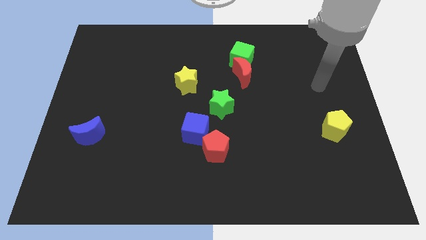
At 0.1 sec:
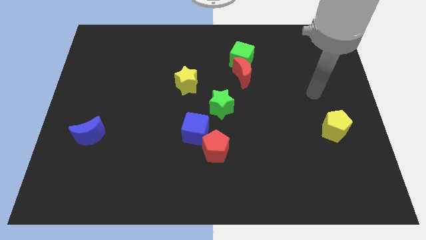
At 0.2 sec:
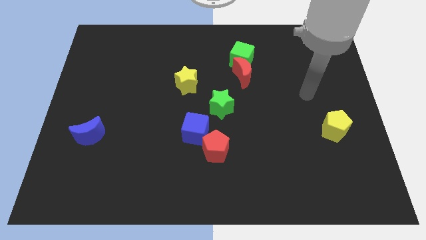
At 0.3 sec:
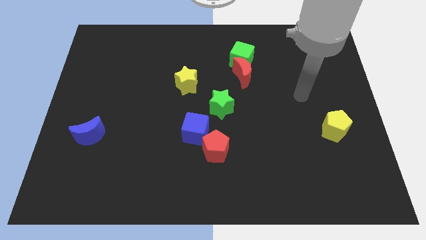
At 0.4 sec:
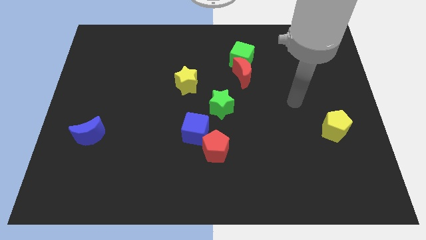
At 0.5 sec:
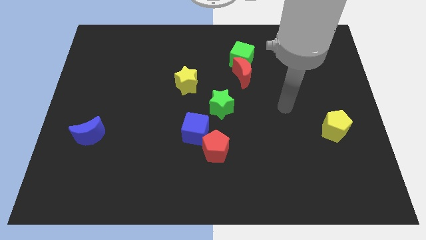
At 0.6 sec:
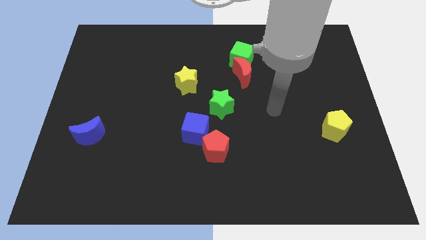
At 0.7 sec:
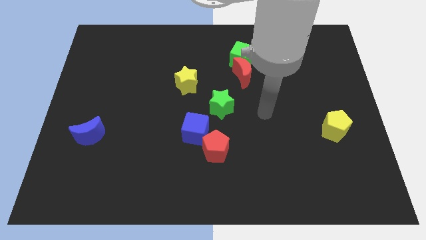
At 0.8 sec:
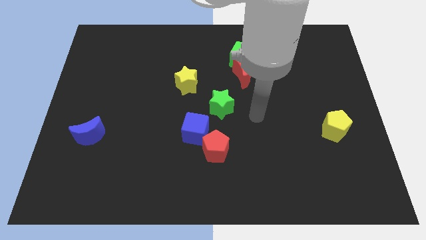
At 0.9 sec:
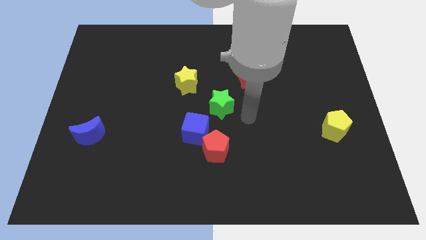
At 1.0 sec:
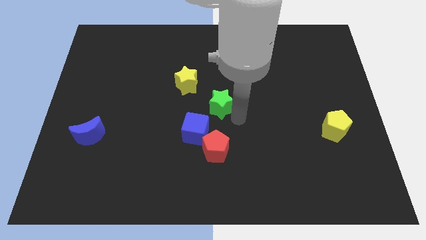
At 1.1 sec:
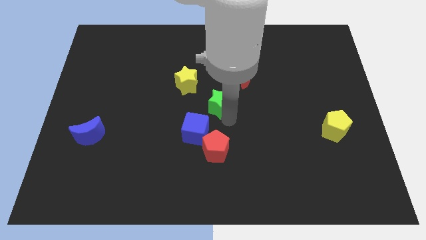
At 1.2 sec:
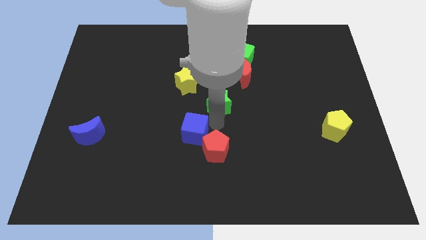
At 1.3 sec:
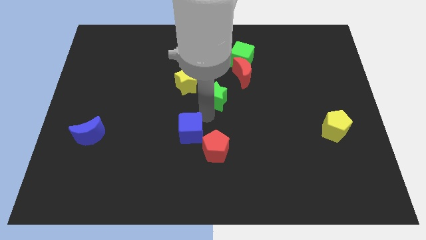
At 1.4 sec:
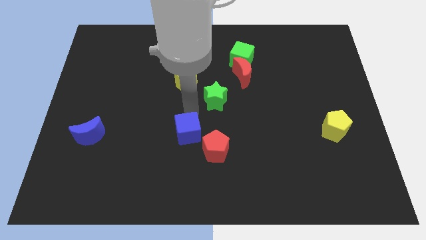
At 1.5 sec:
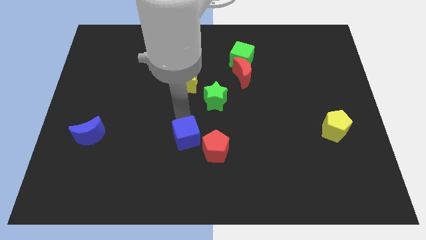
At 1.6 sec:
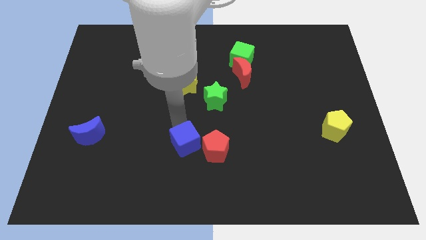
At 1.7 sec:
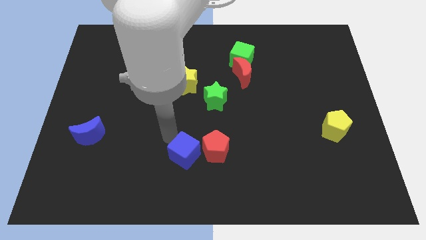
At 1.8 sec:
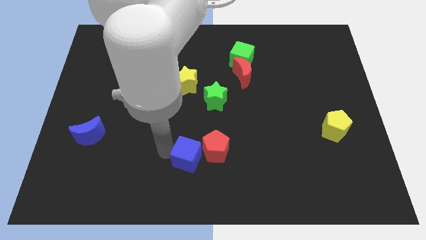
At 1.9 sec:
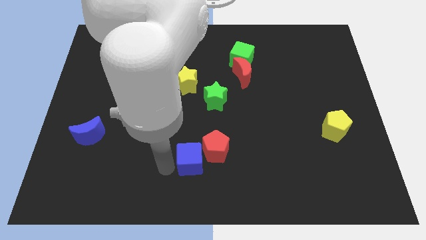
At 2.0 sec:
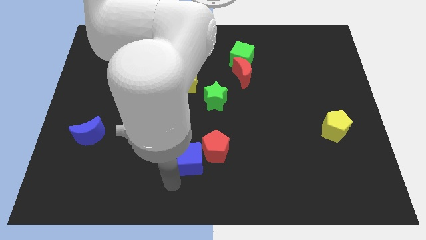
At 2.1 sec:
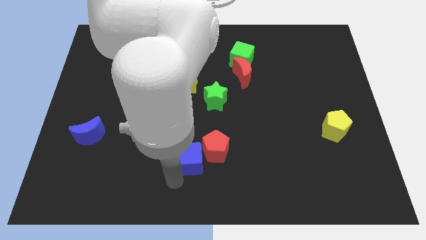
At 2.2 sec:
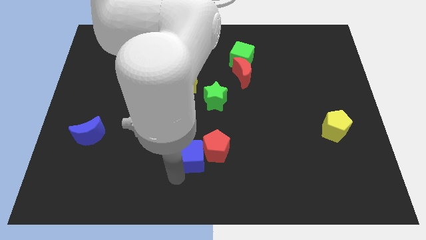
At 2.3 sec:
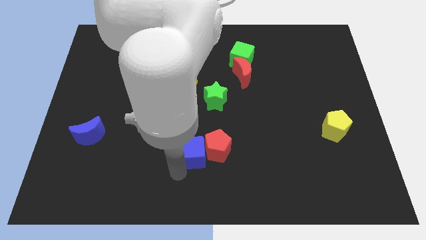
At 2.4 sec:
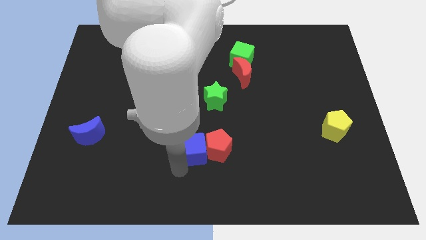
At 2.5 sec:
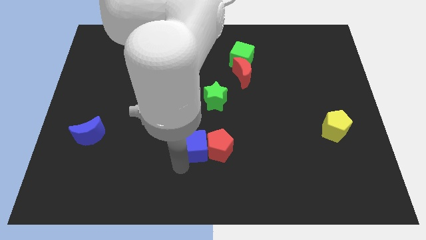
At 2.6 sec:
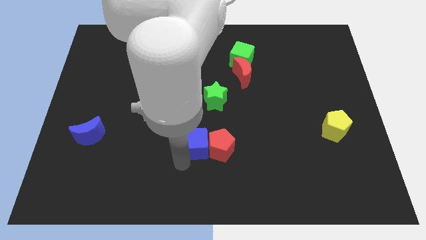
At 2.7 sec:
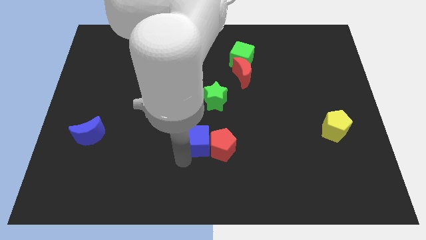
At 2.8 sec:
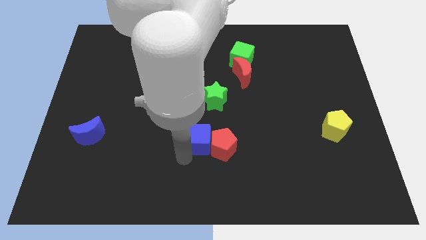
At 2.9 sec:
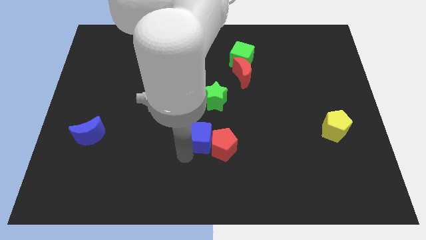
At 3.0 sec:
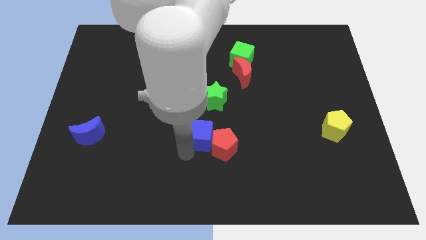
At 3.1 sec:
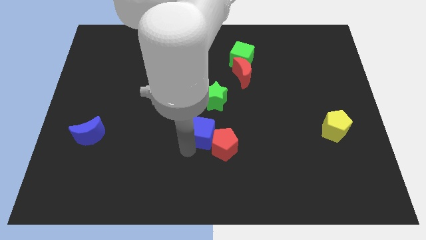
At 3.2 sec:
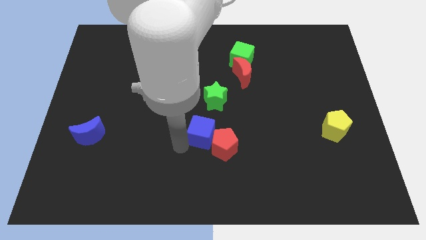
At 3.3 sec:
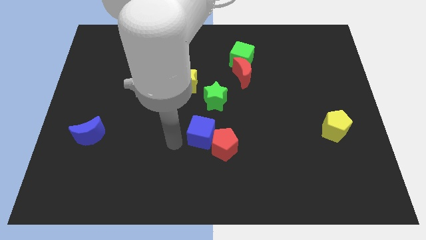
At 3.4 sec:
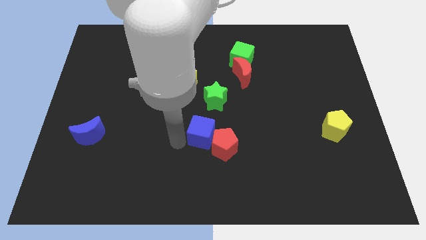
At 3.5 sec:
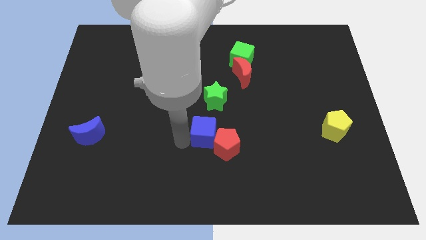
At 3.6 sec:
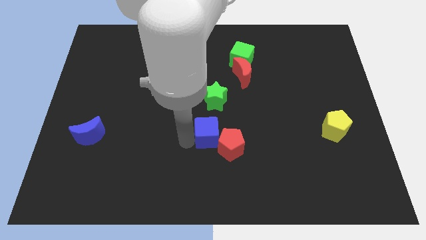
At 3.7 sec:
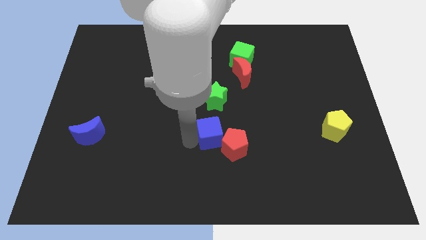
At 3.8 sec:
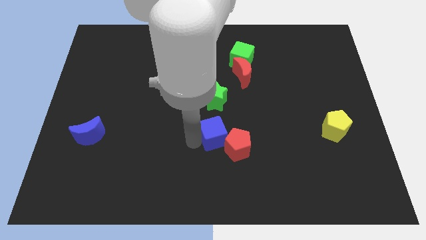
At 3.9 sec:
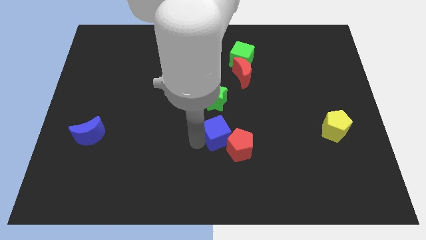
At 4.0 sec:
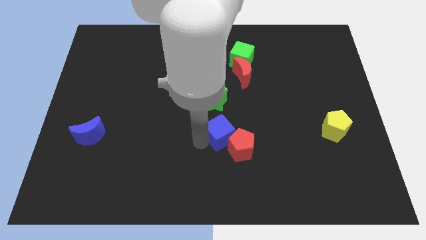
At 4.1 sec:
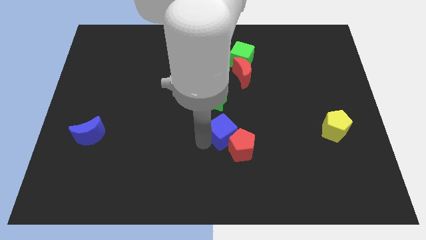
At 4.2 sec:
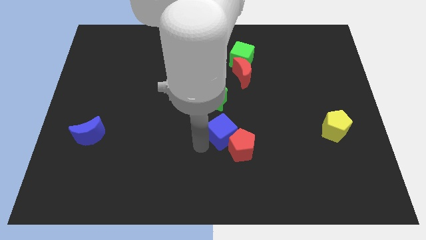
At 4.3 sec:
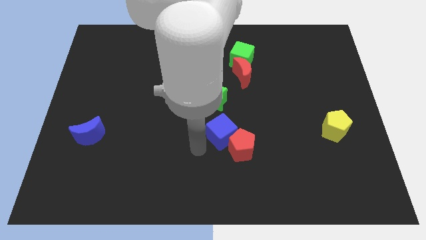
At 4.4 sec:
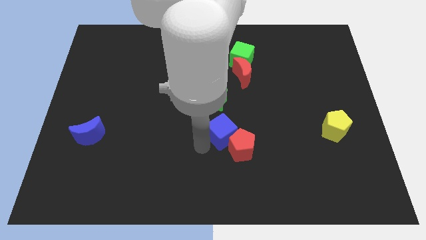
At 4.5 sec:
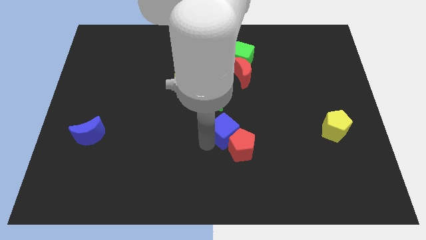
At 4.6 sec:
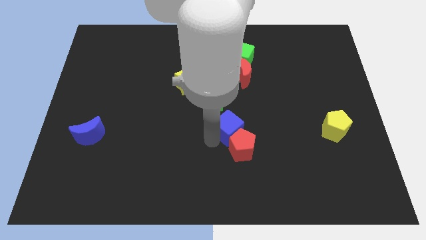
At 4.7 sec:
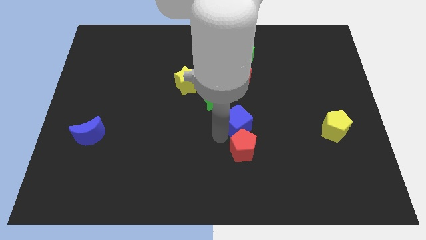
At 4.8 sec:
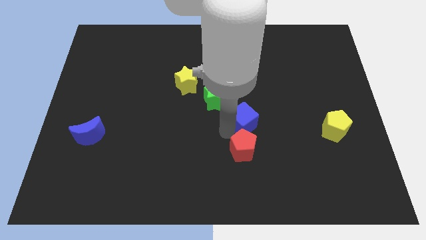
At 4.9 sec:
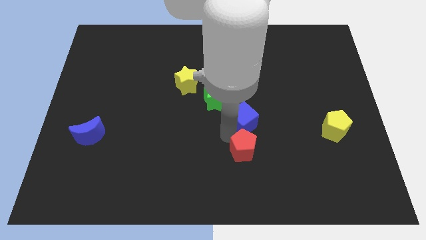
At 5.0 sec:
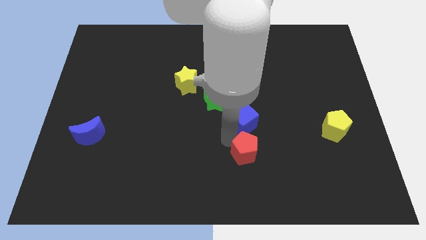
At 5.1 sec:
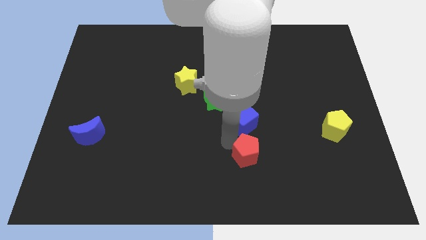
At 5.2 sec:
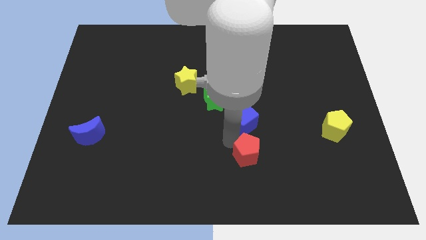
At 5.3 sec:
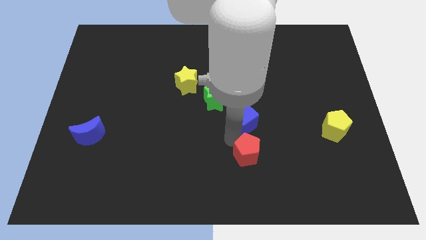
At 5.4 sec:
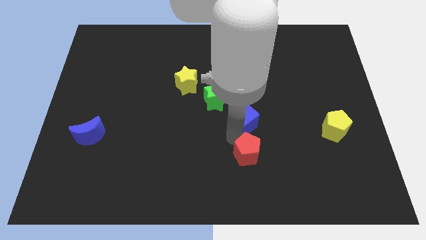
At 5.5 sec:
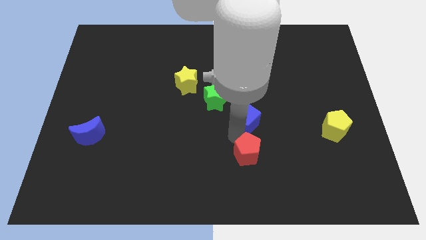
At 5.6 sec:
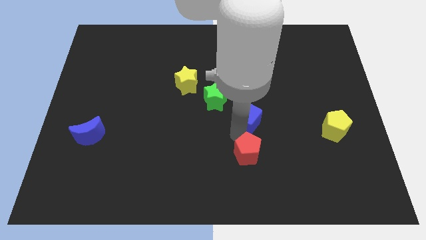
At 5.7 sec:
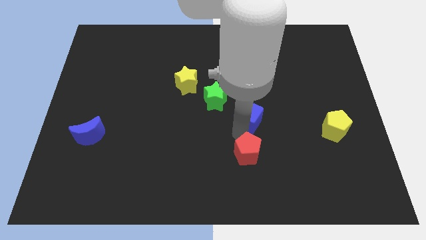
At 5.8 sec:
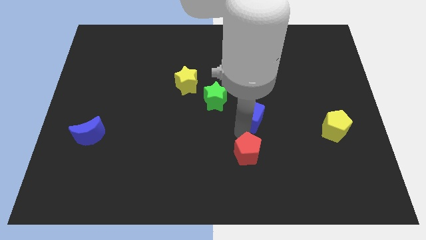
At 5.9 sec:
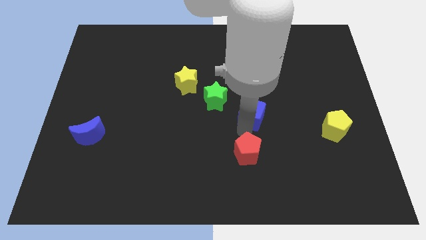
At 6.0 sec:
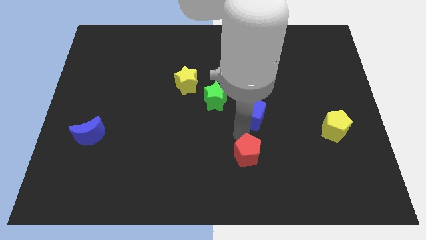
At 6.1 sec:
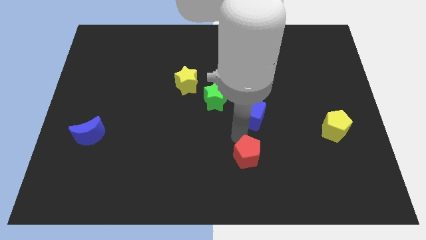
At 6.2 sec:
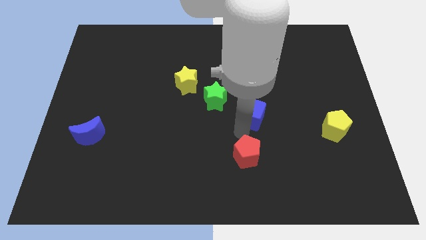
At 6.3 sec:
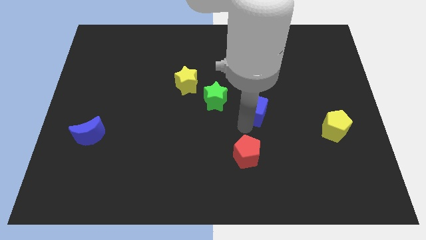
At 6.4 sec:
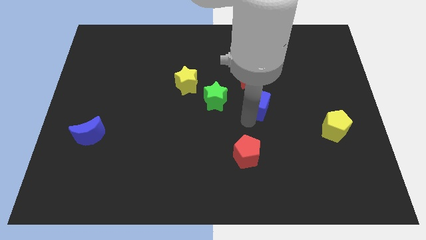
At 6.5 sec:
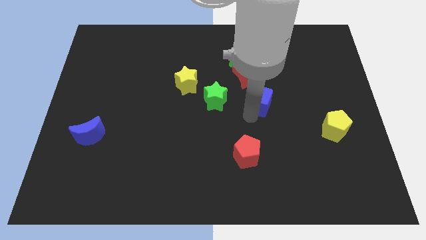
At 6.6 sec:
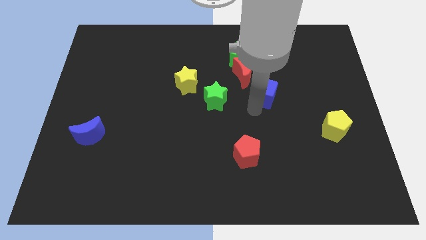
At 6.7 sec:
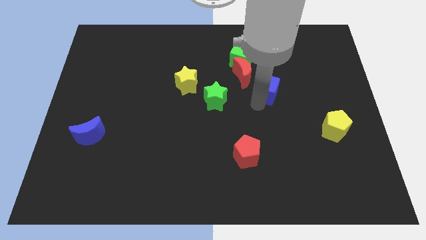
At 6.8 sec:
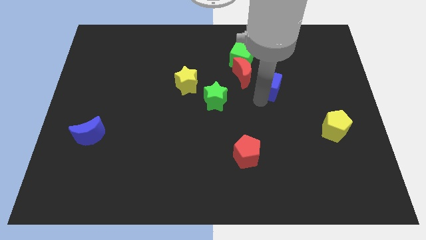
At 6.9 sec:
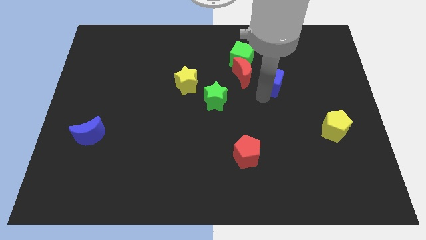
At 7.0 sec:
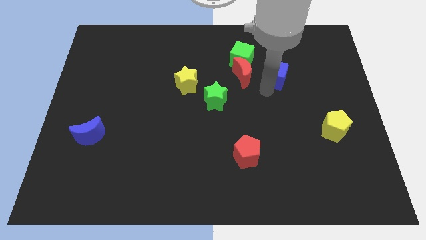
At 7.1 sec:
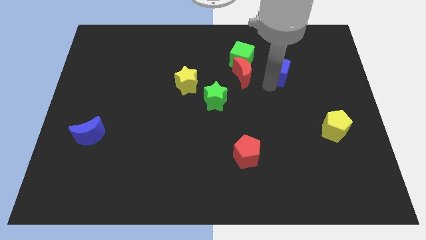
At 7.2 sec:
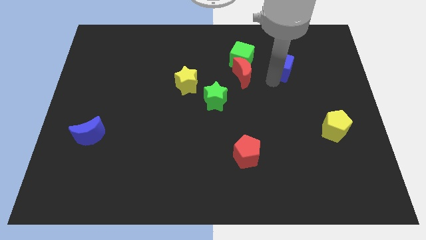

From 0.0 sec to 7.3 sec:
push the blue cube right of the green cube
